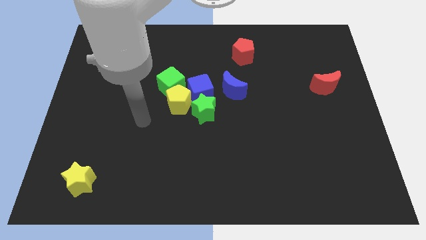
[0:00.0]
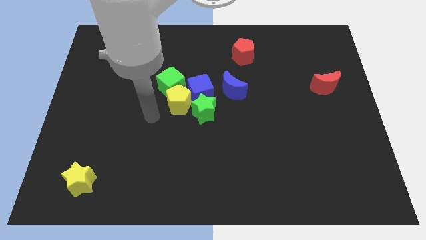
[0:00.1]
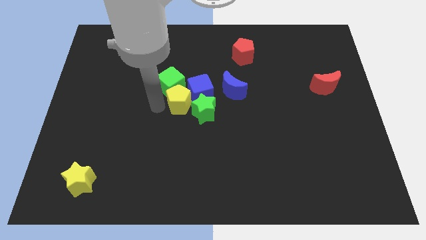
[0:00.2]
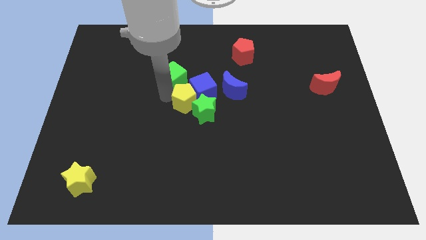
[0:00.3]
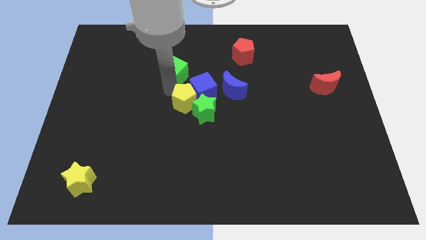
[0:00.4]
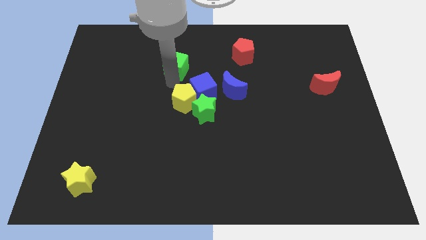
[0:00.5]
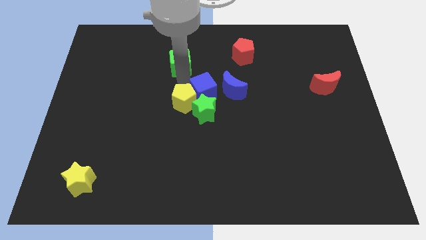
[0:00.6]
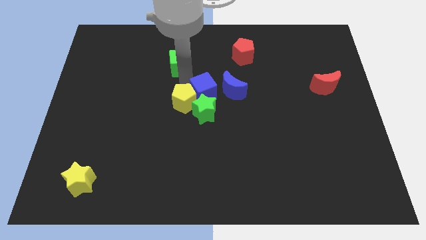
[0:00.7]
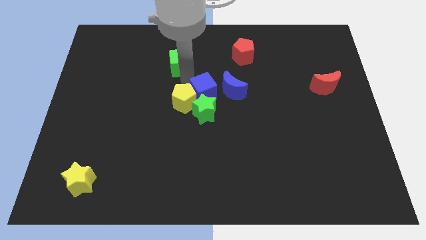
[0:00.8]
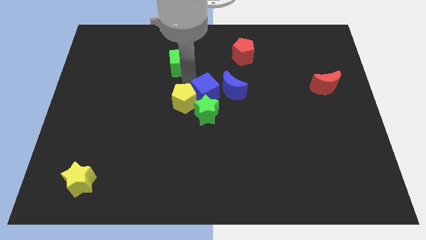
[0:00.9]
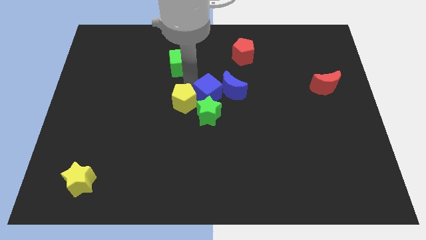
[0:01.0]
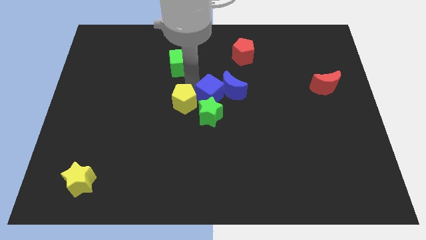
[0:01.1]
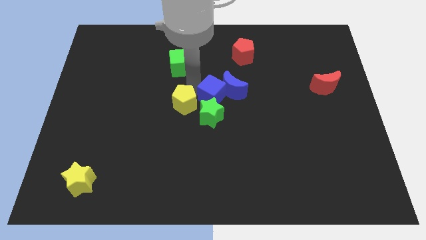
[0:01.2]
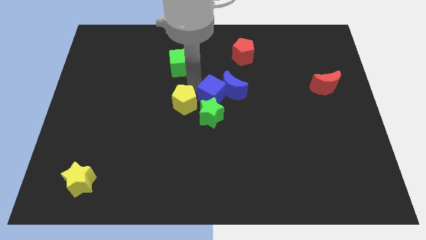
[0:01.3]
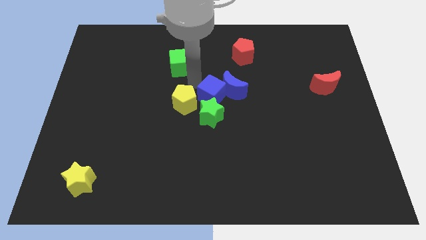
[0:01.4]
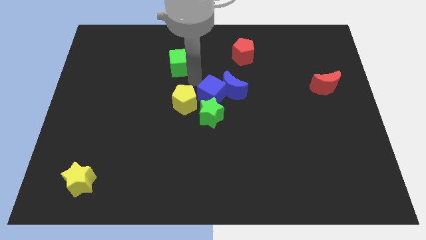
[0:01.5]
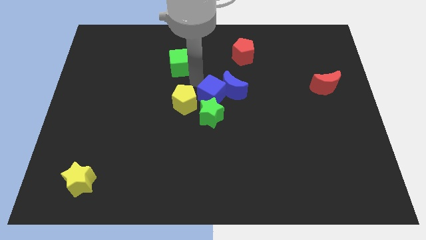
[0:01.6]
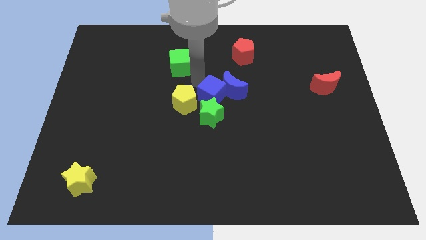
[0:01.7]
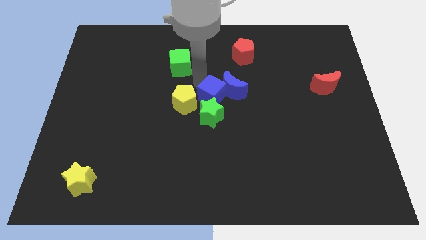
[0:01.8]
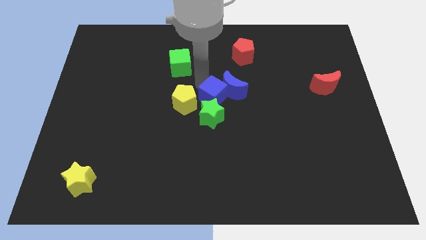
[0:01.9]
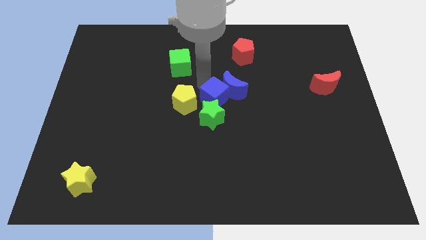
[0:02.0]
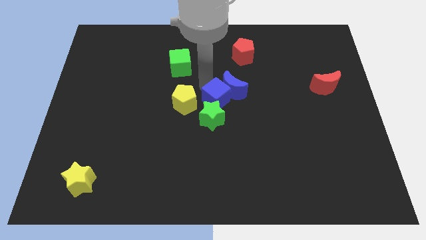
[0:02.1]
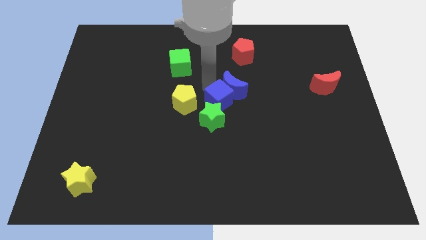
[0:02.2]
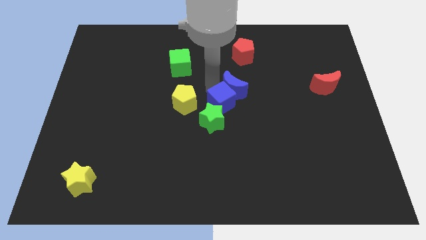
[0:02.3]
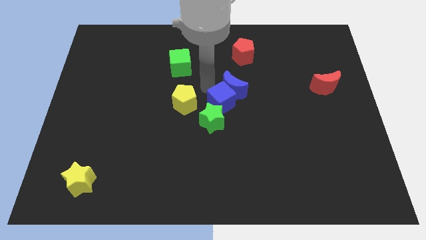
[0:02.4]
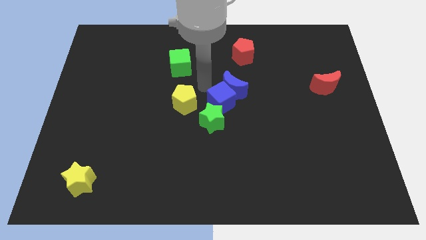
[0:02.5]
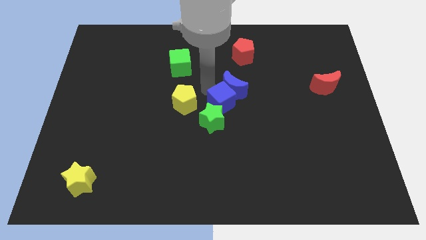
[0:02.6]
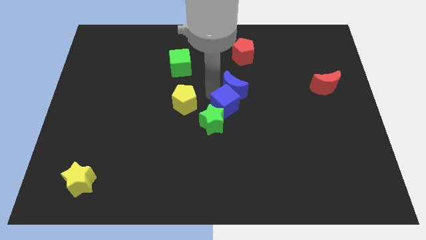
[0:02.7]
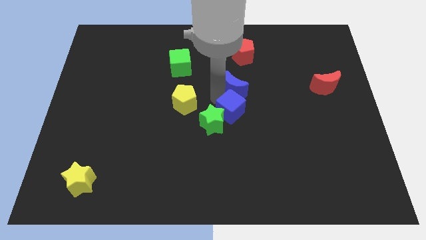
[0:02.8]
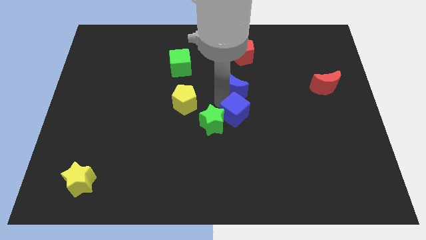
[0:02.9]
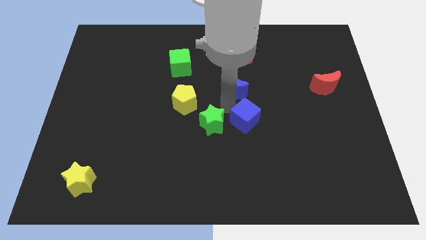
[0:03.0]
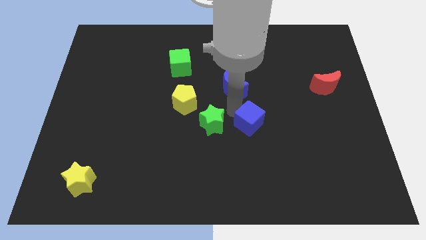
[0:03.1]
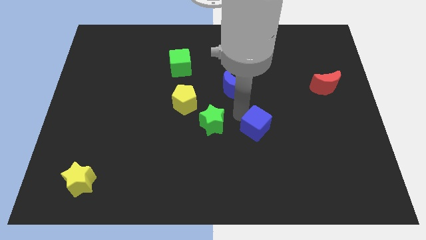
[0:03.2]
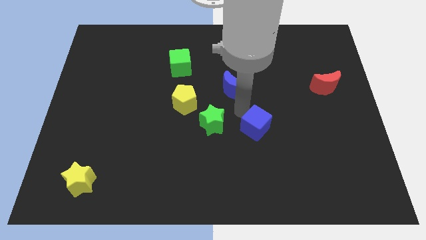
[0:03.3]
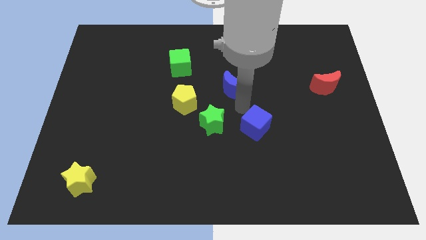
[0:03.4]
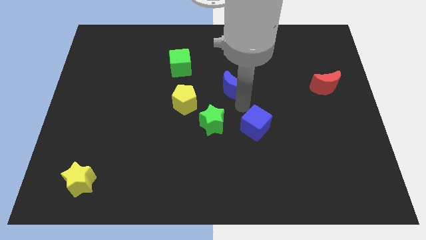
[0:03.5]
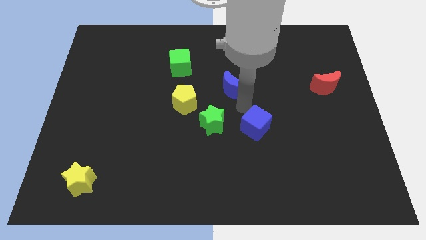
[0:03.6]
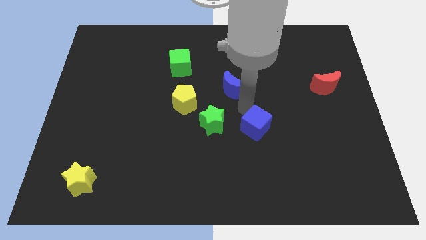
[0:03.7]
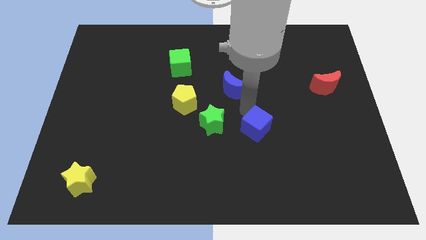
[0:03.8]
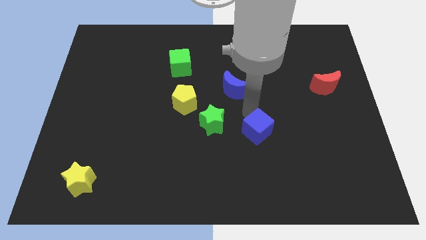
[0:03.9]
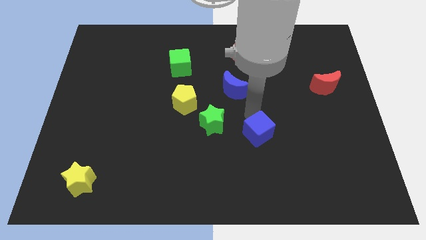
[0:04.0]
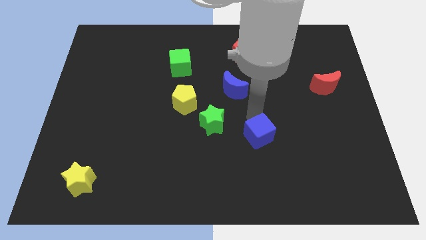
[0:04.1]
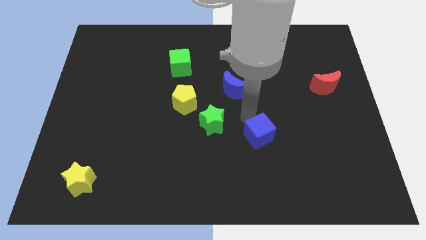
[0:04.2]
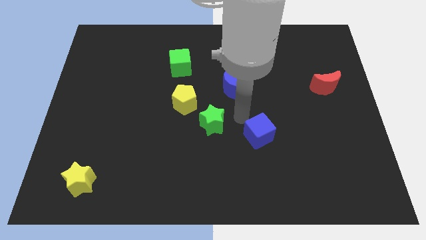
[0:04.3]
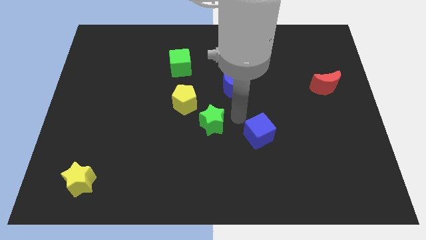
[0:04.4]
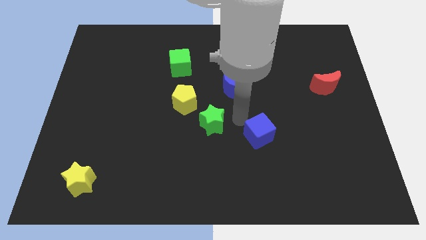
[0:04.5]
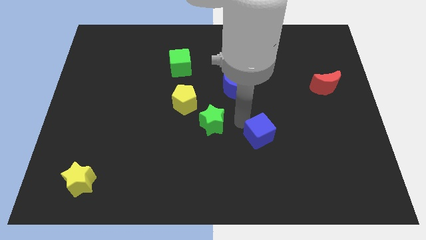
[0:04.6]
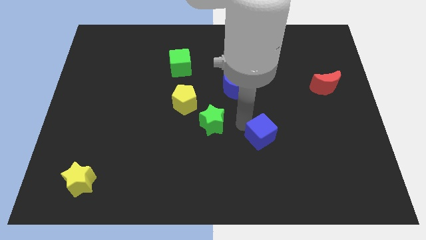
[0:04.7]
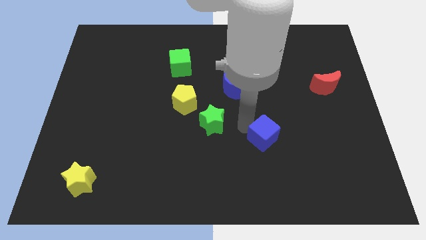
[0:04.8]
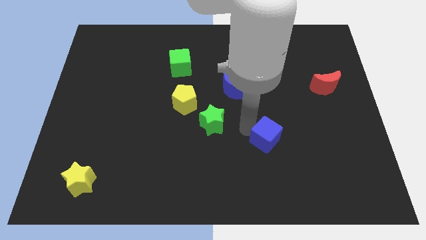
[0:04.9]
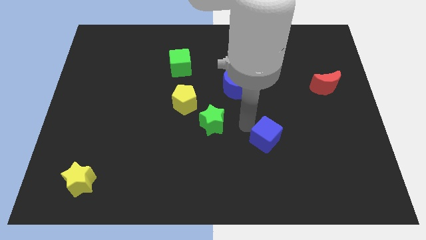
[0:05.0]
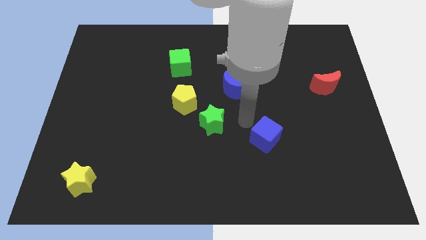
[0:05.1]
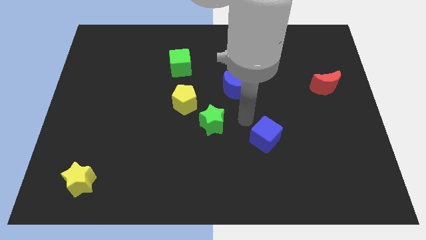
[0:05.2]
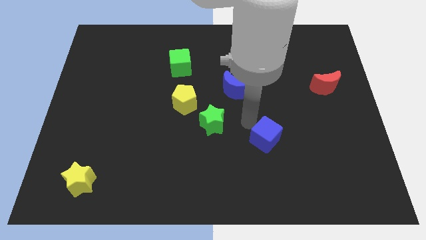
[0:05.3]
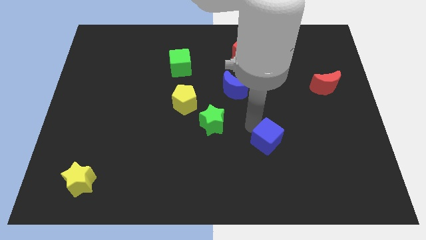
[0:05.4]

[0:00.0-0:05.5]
move the blue cube down and then to the right

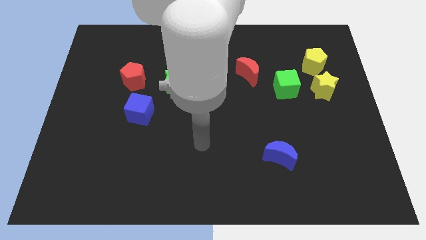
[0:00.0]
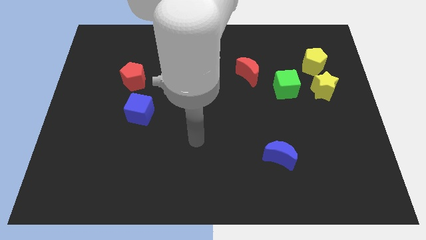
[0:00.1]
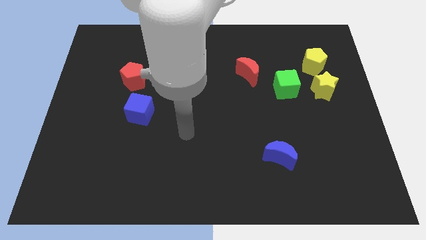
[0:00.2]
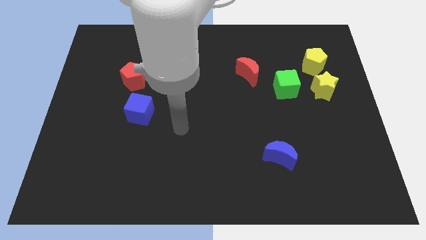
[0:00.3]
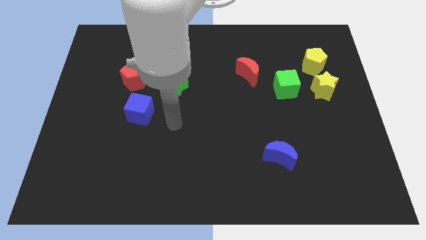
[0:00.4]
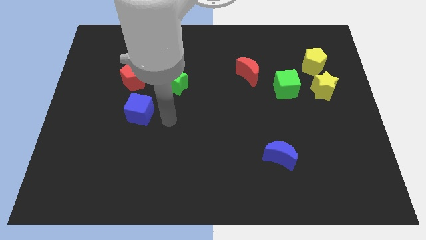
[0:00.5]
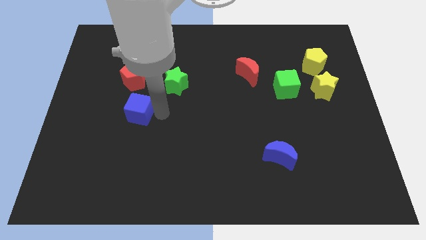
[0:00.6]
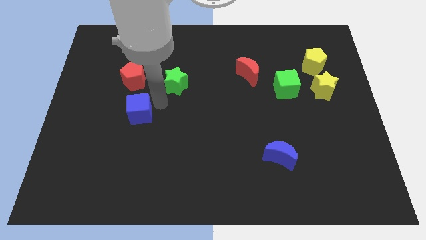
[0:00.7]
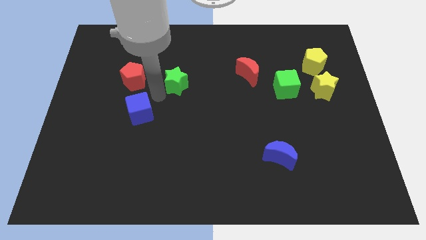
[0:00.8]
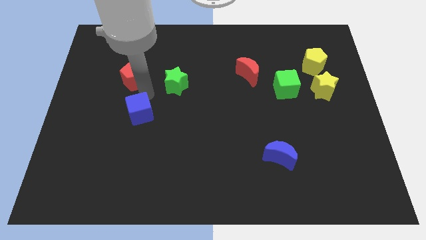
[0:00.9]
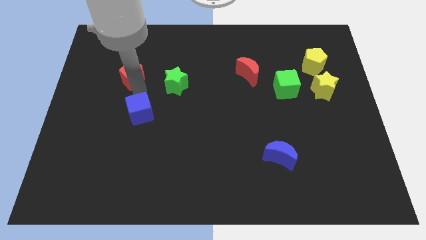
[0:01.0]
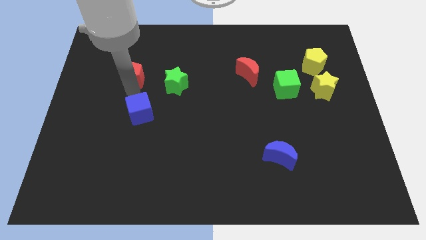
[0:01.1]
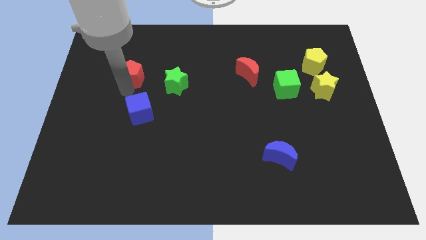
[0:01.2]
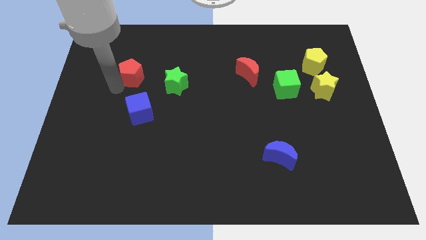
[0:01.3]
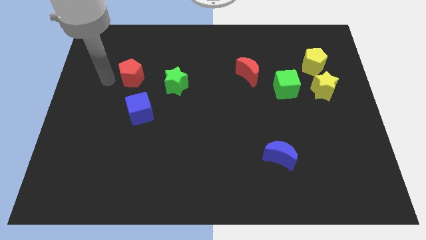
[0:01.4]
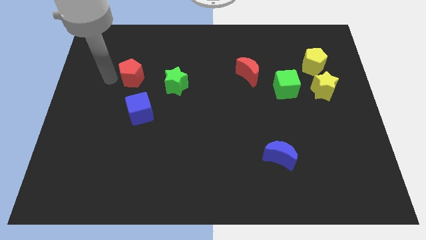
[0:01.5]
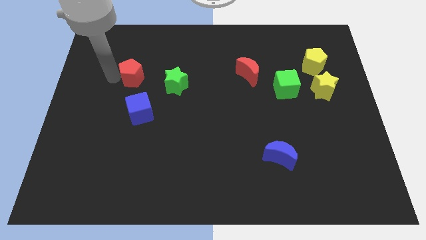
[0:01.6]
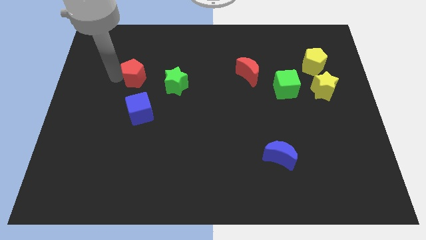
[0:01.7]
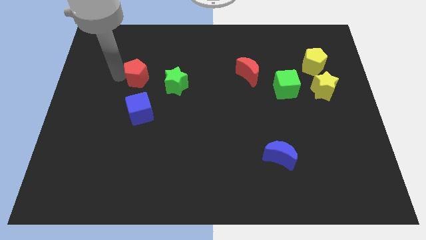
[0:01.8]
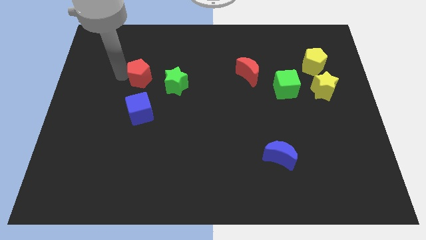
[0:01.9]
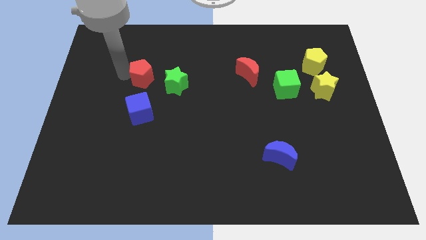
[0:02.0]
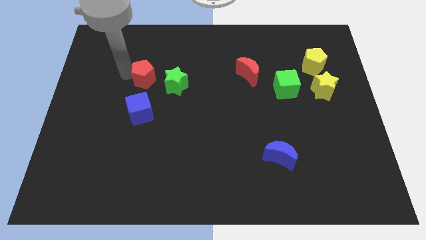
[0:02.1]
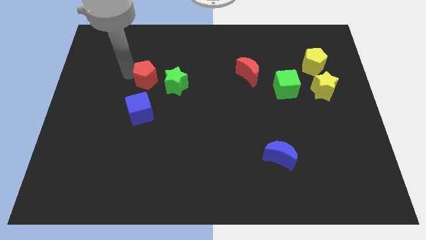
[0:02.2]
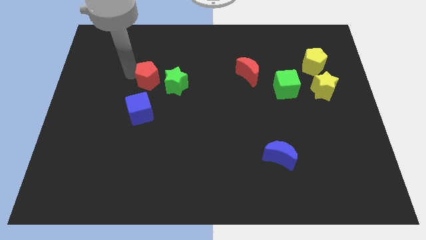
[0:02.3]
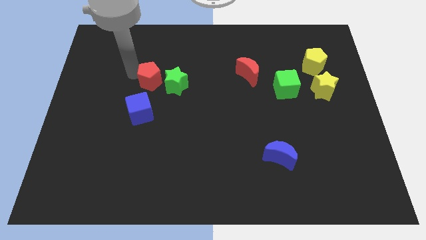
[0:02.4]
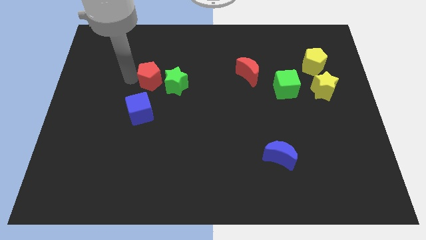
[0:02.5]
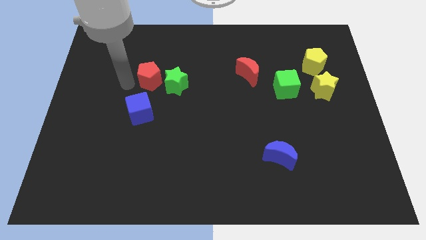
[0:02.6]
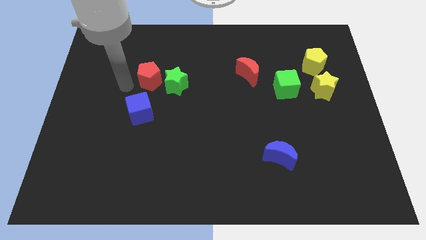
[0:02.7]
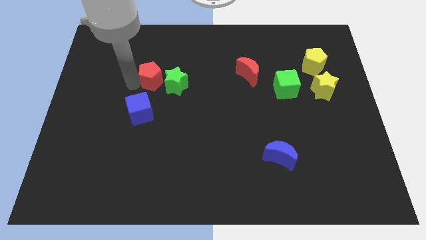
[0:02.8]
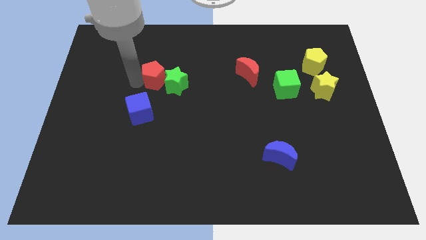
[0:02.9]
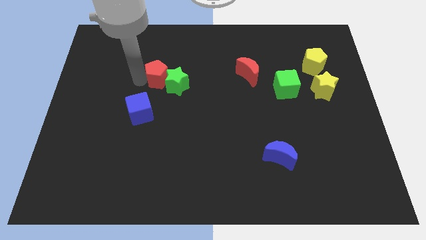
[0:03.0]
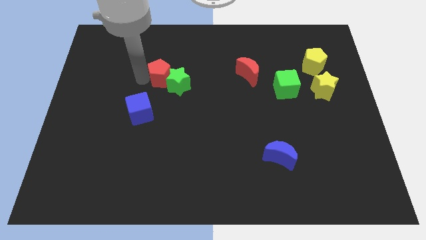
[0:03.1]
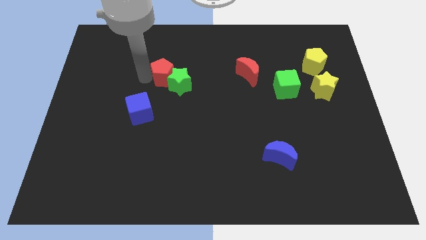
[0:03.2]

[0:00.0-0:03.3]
push the red pentagon right slightly
